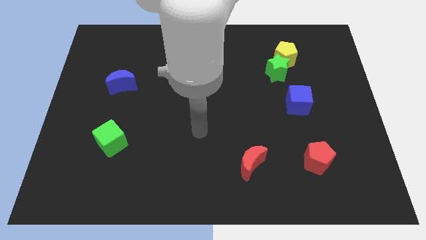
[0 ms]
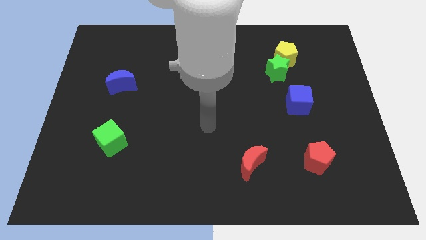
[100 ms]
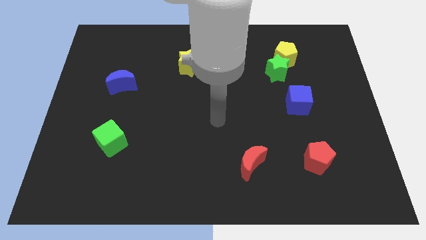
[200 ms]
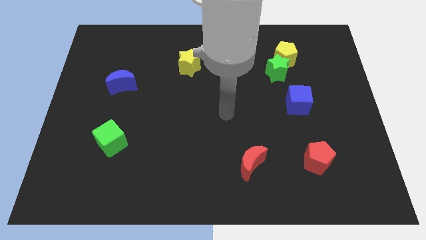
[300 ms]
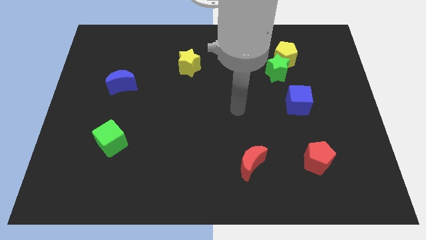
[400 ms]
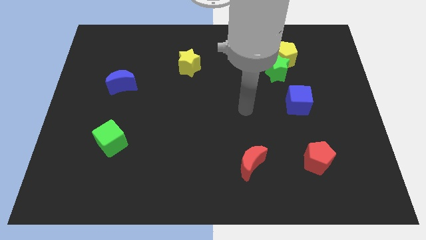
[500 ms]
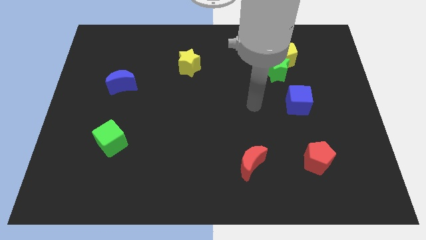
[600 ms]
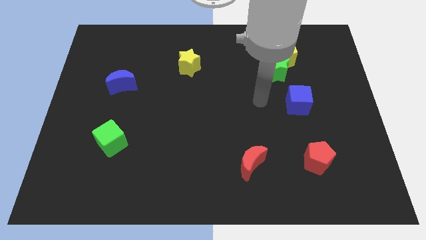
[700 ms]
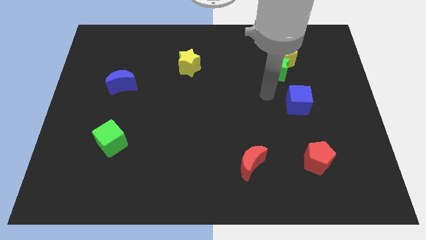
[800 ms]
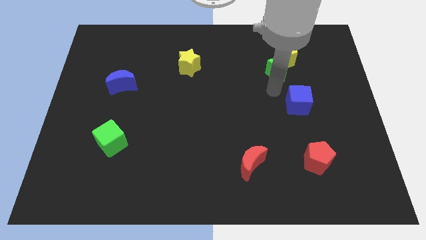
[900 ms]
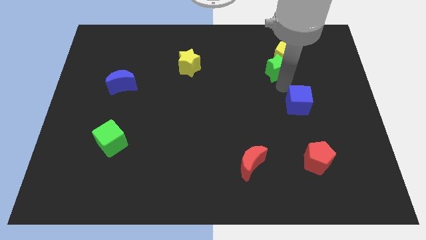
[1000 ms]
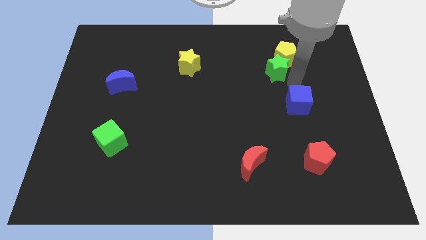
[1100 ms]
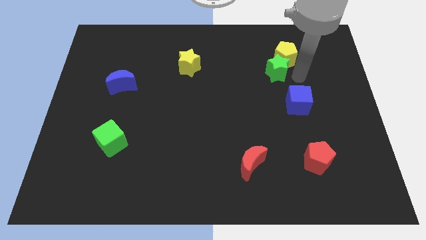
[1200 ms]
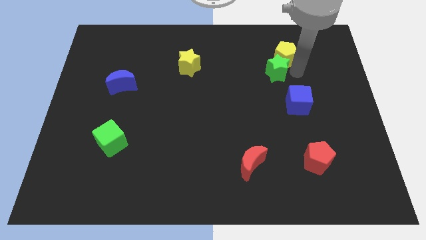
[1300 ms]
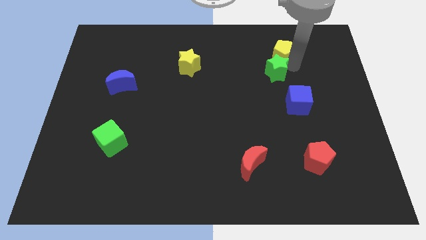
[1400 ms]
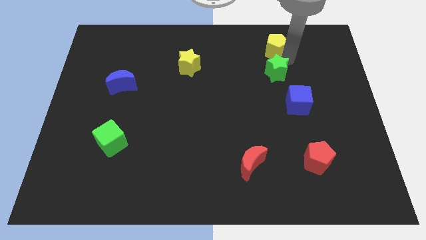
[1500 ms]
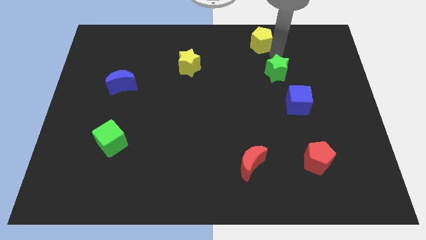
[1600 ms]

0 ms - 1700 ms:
move the green star away from the yellow pentagon

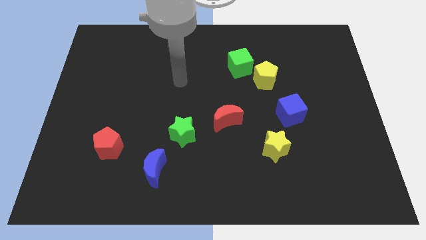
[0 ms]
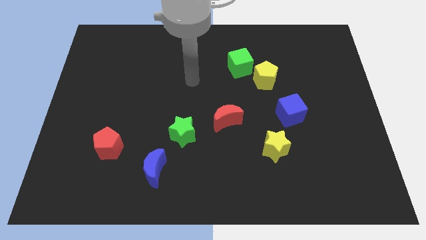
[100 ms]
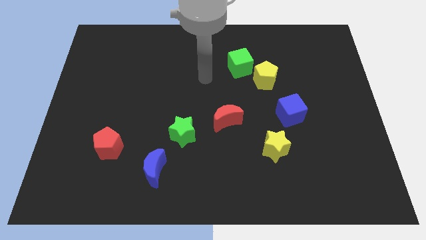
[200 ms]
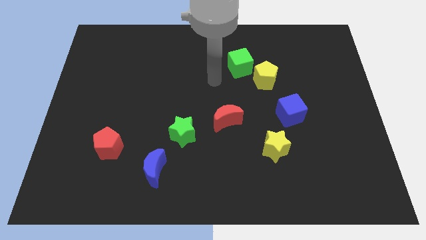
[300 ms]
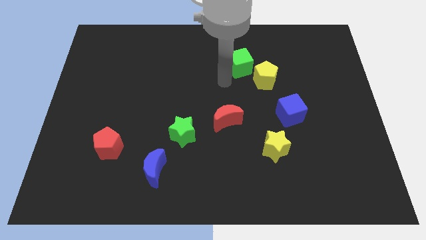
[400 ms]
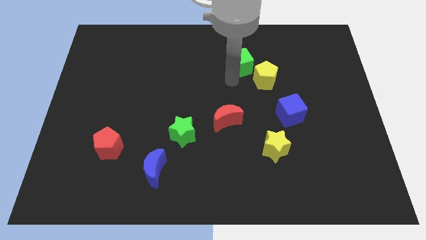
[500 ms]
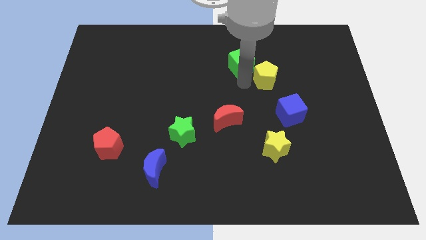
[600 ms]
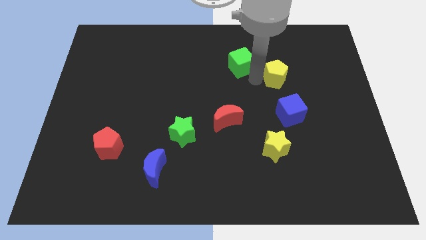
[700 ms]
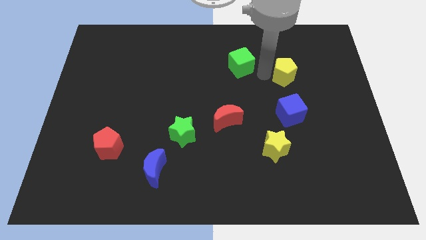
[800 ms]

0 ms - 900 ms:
pull the green cube apart from the yellow pentagon

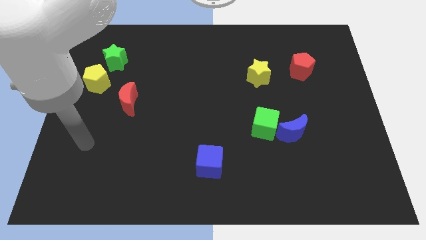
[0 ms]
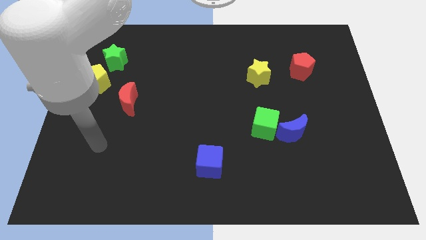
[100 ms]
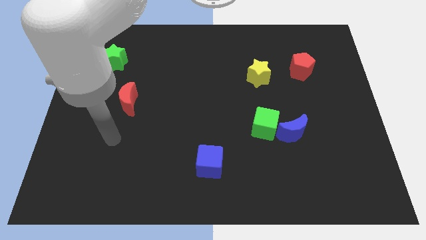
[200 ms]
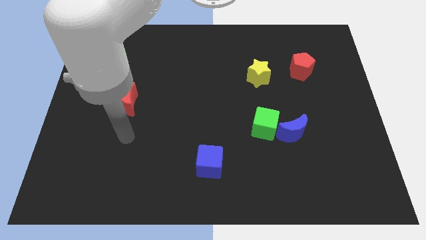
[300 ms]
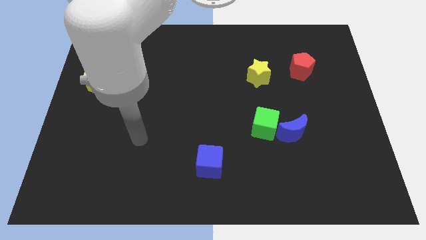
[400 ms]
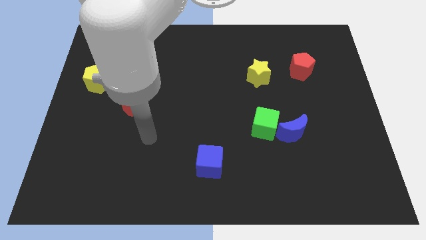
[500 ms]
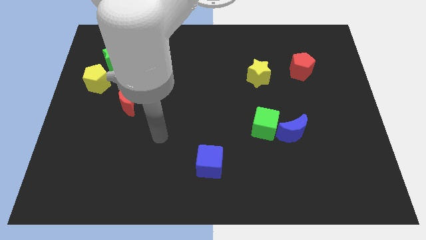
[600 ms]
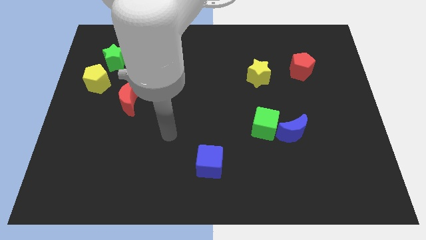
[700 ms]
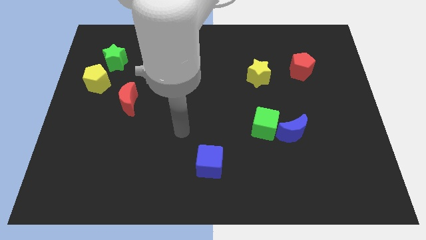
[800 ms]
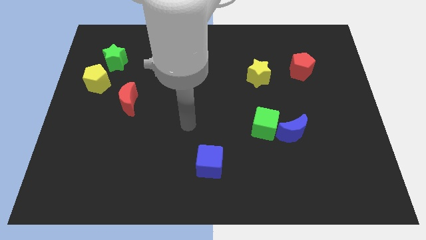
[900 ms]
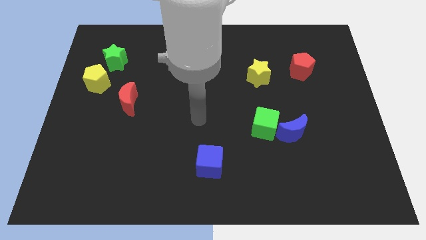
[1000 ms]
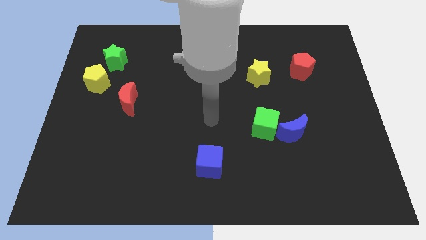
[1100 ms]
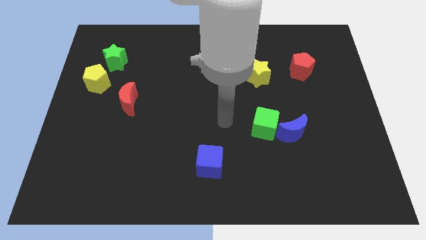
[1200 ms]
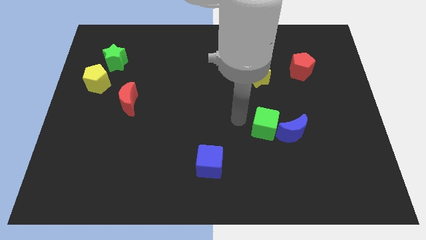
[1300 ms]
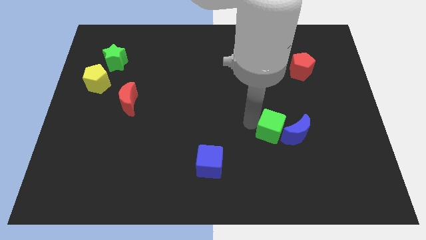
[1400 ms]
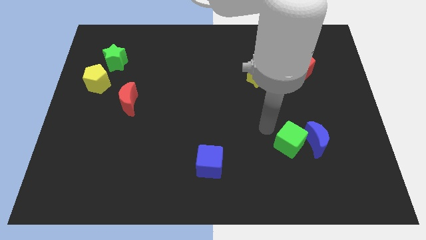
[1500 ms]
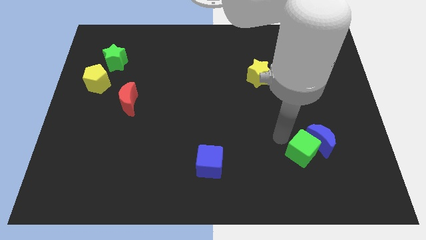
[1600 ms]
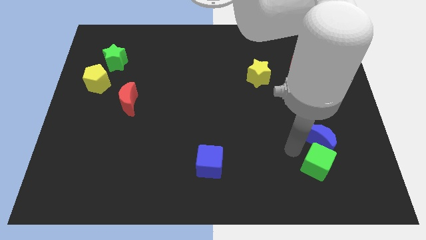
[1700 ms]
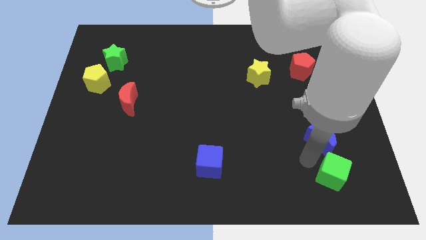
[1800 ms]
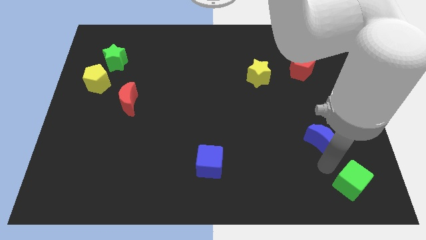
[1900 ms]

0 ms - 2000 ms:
move the blue moon away from the green cube

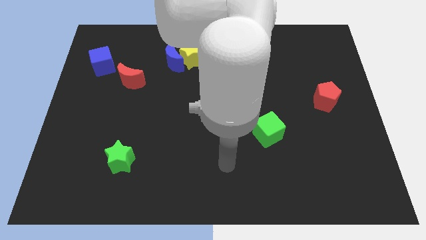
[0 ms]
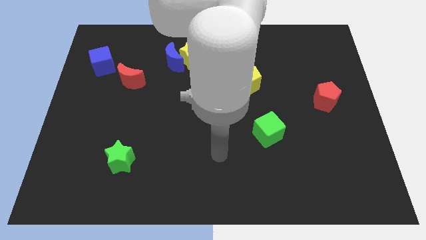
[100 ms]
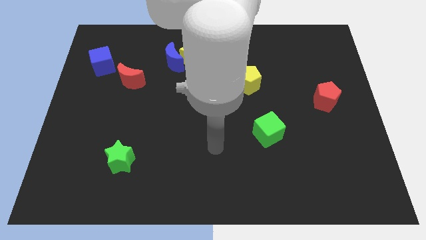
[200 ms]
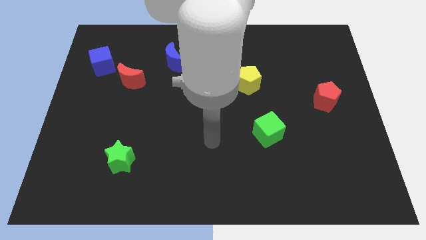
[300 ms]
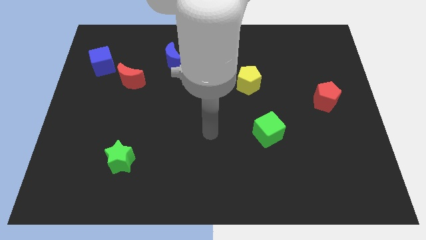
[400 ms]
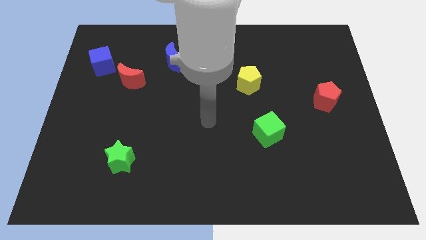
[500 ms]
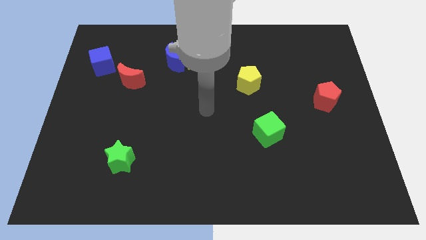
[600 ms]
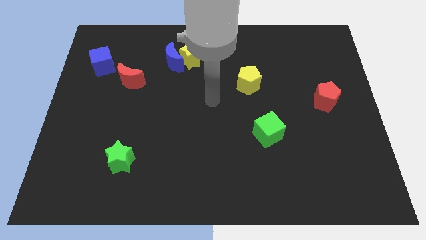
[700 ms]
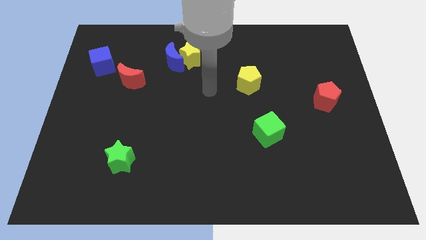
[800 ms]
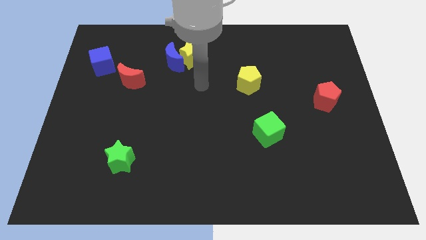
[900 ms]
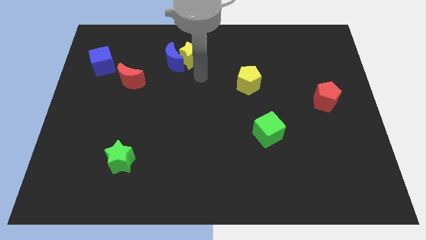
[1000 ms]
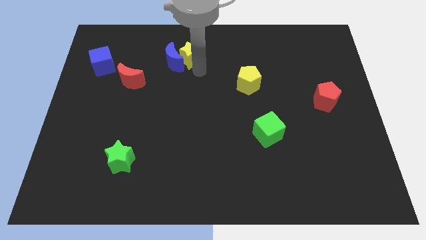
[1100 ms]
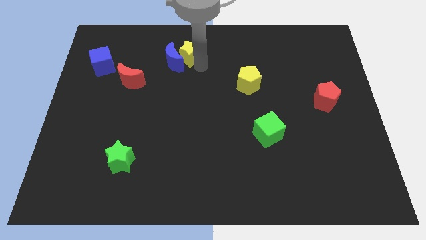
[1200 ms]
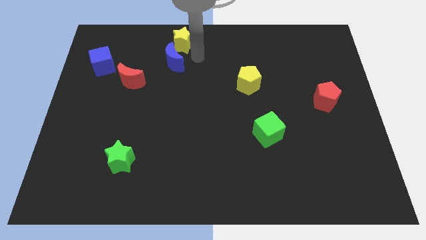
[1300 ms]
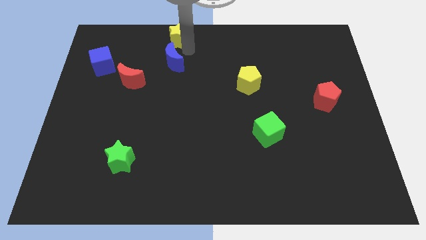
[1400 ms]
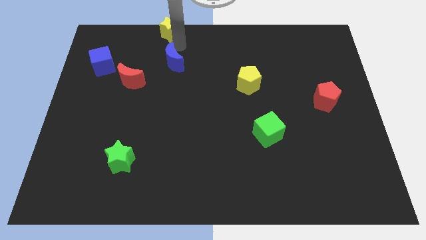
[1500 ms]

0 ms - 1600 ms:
separate the blue moon from the yellow star

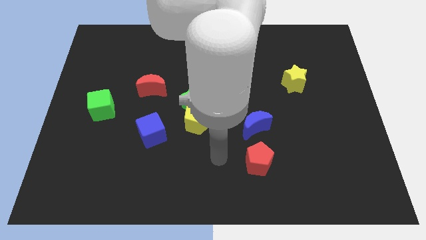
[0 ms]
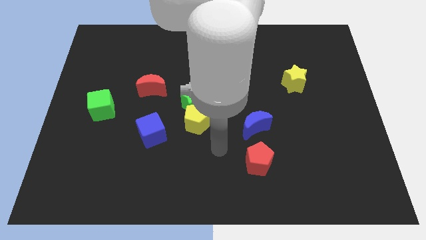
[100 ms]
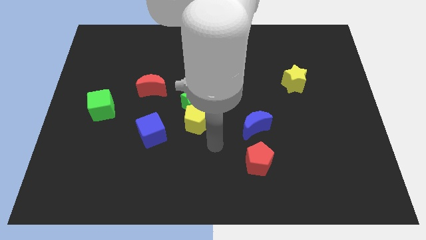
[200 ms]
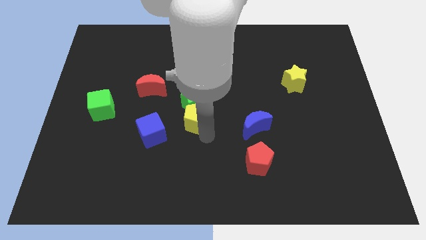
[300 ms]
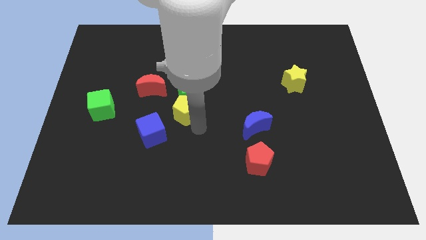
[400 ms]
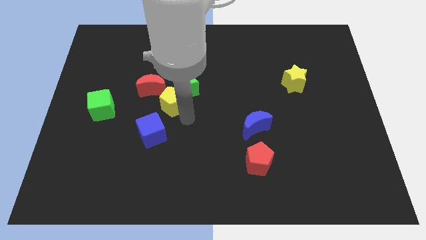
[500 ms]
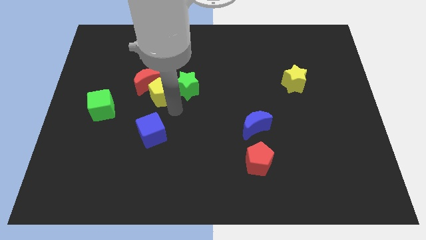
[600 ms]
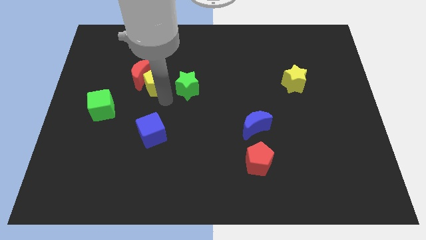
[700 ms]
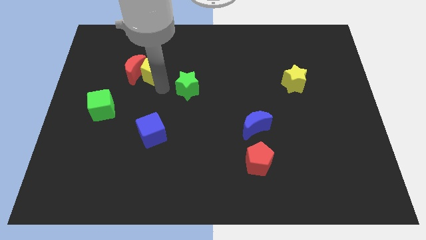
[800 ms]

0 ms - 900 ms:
separate the green star from the yellow pentagon

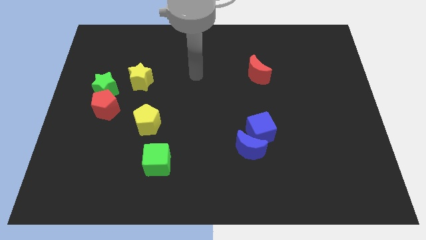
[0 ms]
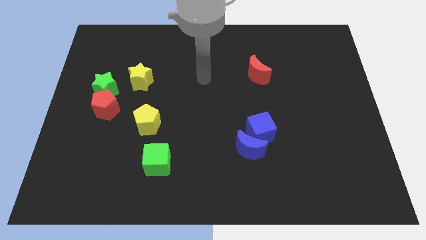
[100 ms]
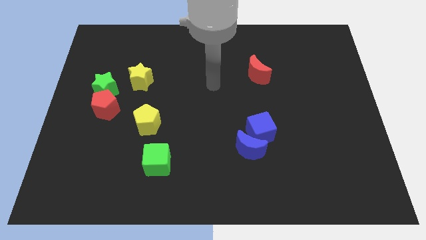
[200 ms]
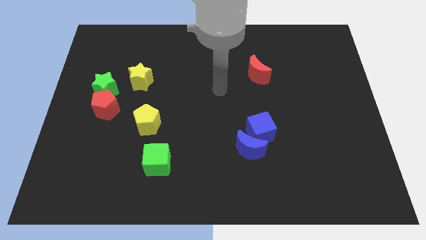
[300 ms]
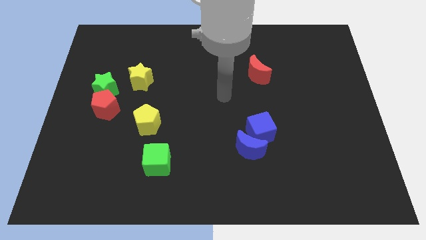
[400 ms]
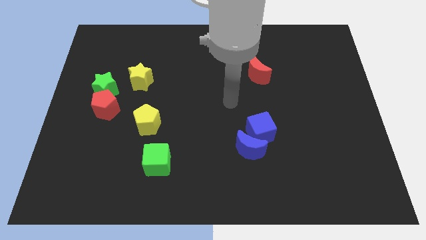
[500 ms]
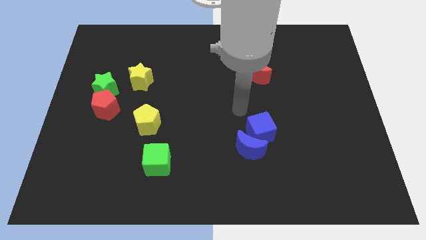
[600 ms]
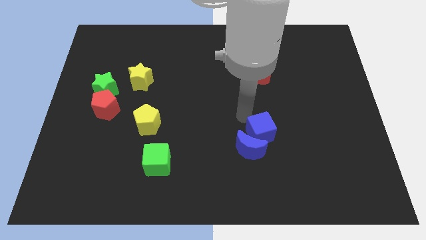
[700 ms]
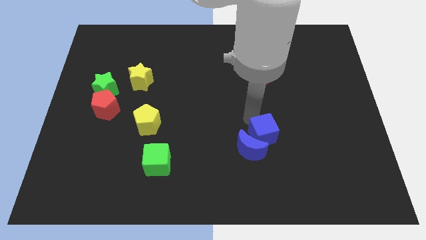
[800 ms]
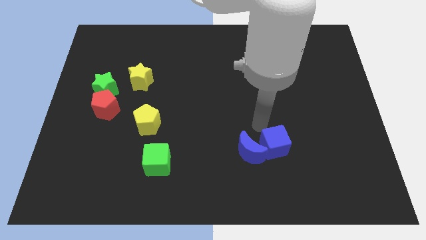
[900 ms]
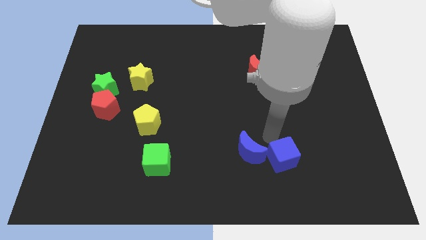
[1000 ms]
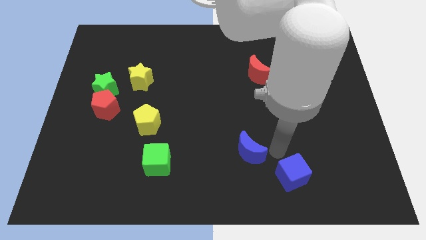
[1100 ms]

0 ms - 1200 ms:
move the blue moon away from the blue cube

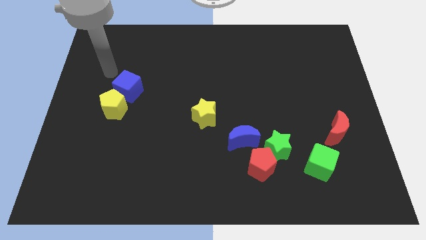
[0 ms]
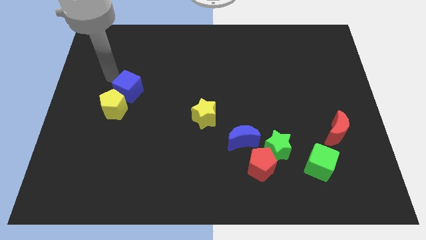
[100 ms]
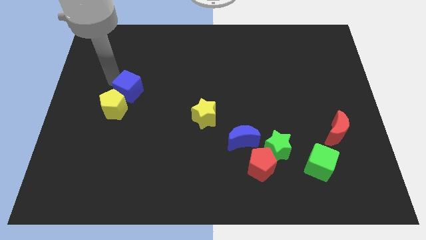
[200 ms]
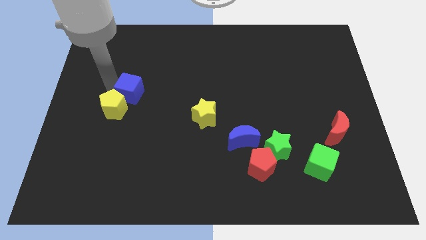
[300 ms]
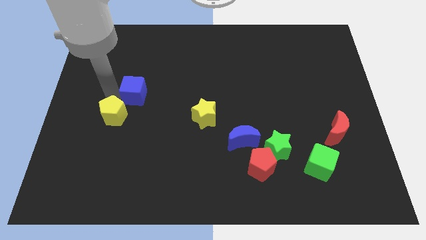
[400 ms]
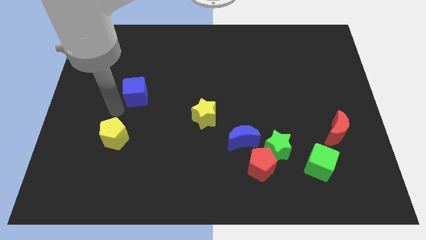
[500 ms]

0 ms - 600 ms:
pull the blue cube apart from the yellow pentagon

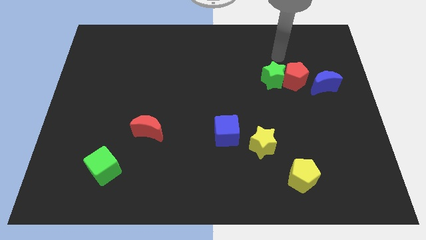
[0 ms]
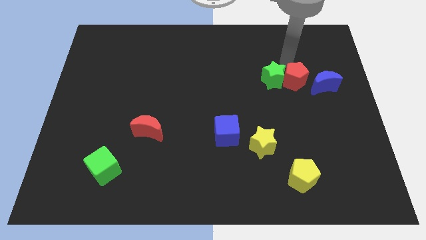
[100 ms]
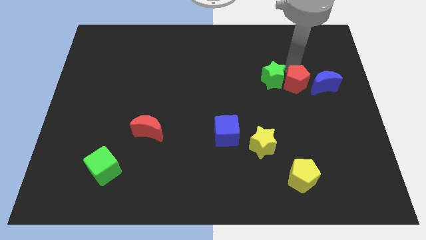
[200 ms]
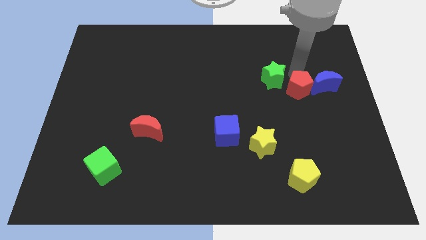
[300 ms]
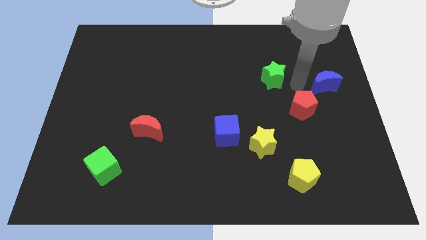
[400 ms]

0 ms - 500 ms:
separate the green star from the red pentagon
